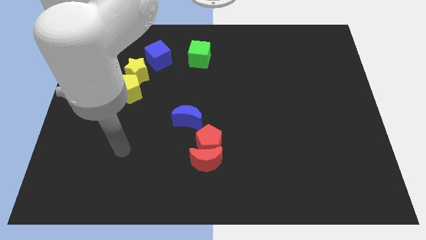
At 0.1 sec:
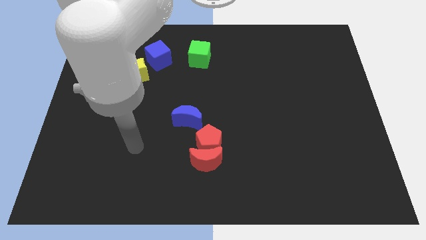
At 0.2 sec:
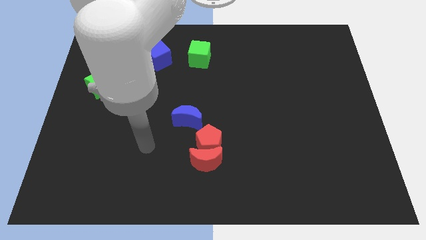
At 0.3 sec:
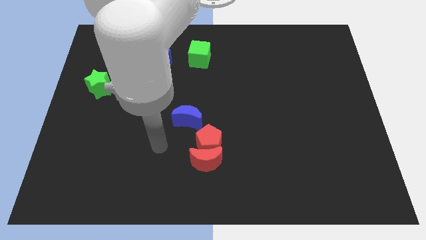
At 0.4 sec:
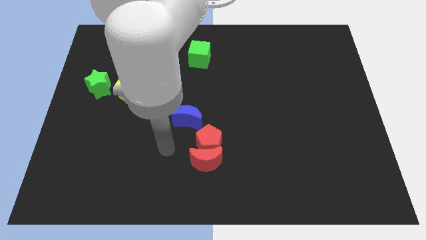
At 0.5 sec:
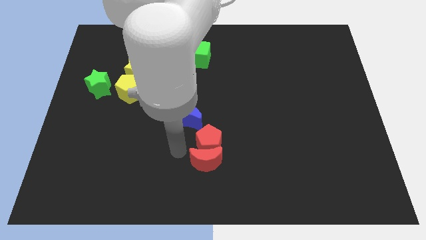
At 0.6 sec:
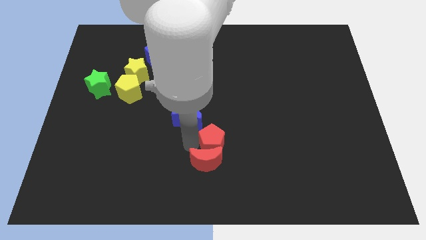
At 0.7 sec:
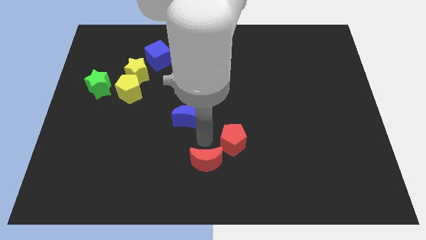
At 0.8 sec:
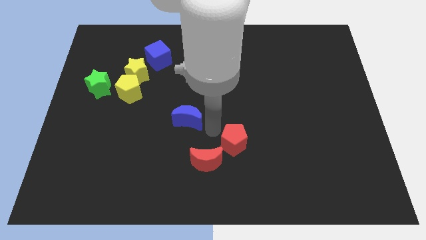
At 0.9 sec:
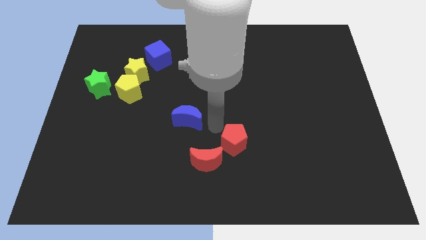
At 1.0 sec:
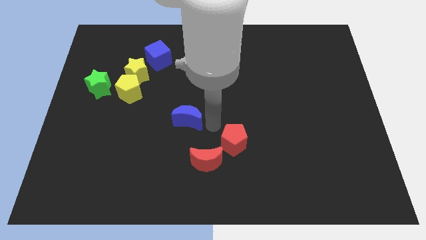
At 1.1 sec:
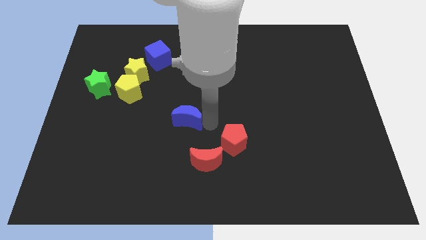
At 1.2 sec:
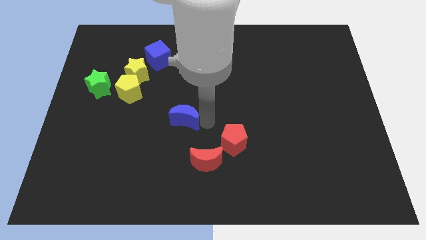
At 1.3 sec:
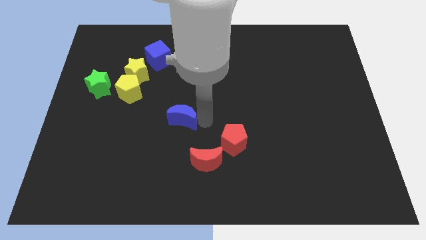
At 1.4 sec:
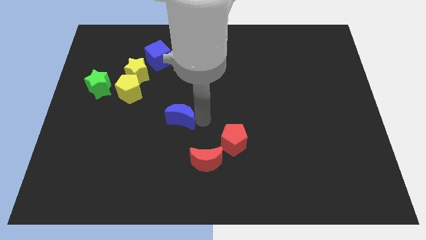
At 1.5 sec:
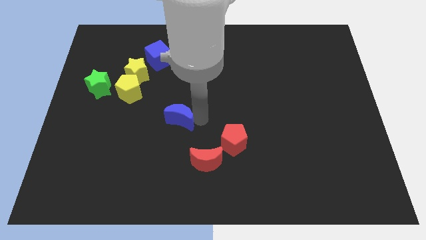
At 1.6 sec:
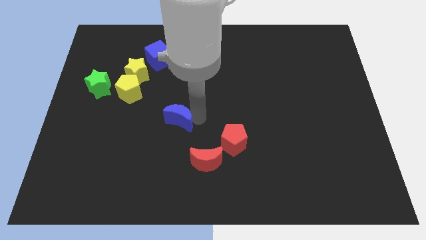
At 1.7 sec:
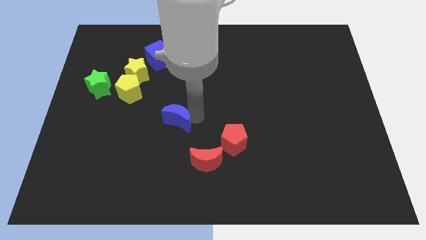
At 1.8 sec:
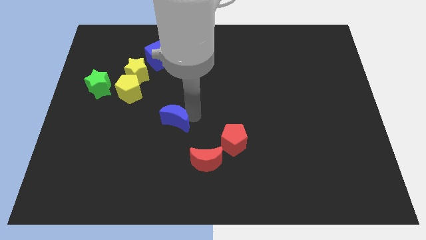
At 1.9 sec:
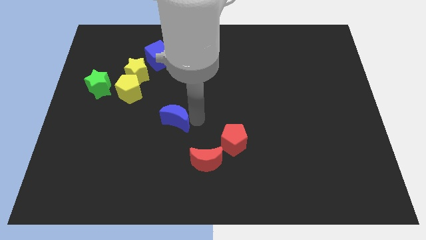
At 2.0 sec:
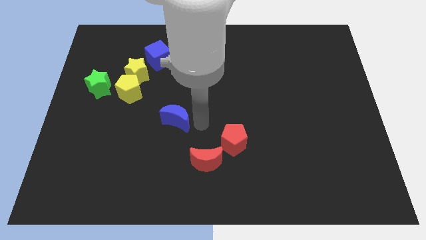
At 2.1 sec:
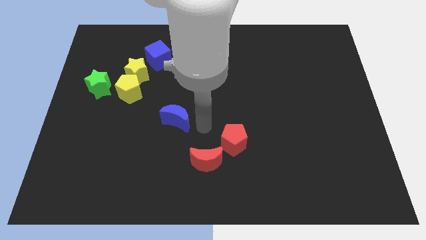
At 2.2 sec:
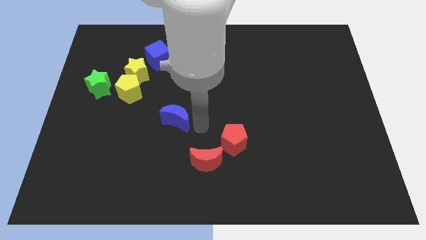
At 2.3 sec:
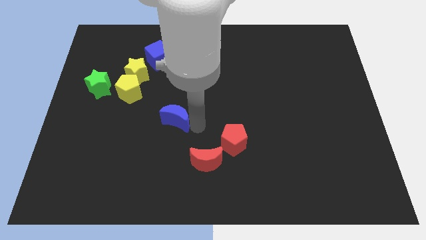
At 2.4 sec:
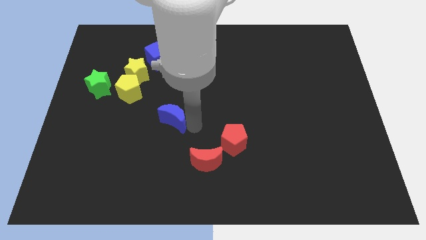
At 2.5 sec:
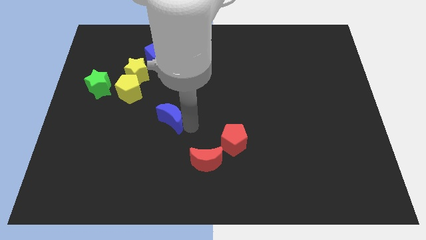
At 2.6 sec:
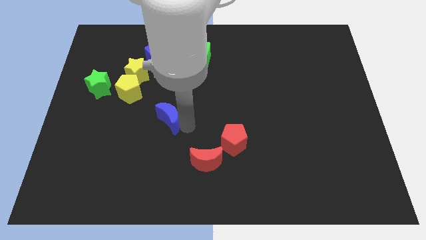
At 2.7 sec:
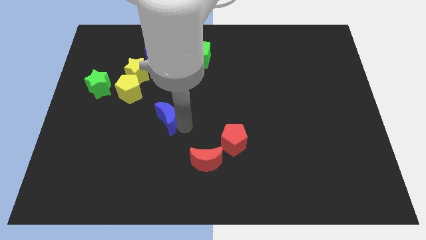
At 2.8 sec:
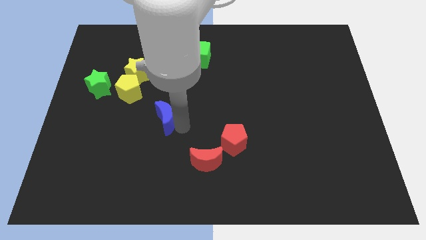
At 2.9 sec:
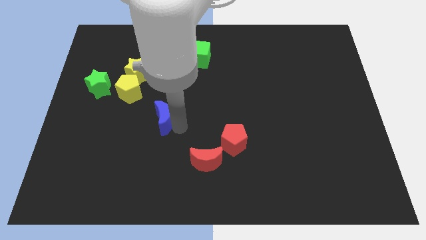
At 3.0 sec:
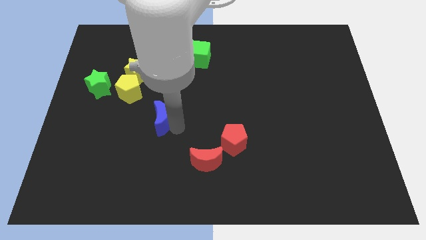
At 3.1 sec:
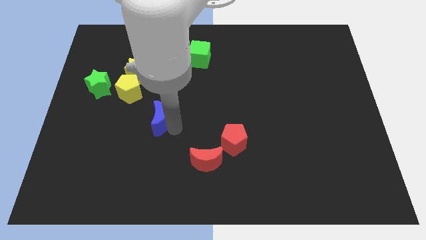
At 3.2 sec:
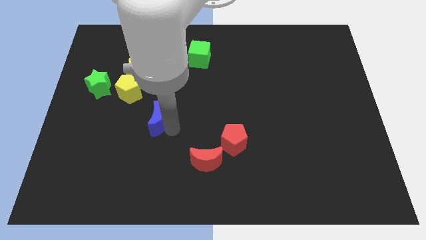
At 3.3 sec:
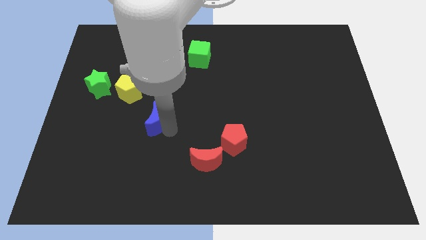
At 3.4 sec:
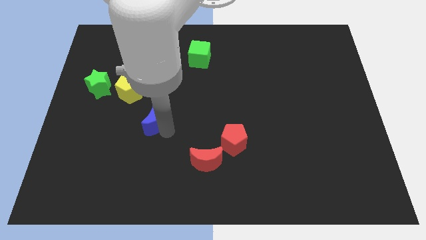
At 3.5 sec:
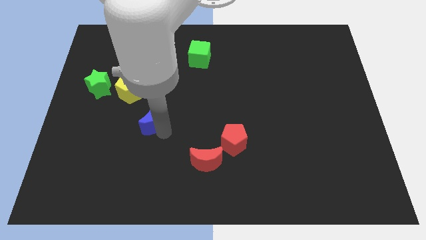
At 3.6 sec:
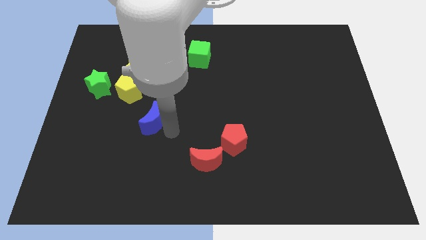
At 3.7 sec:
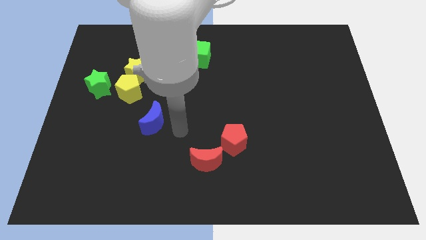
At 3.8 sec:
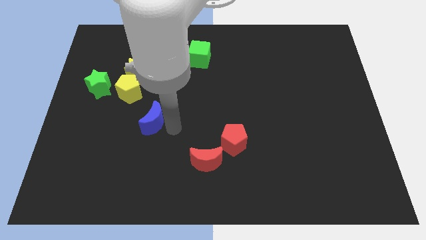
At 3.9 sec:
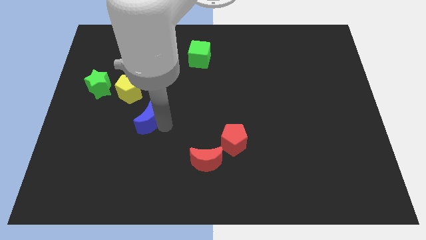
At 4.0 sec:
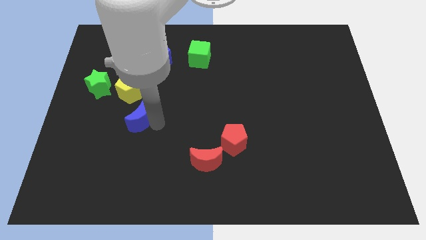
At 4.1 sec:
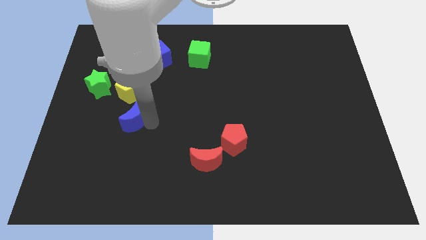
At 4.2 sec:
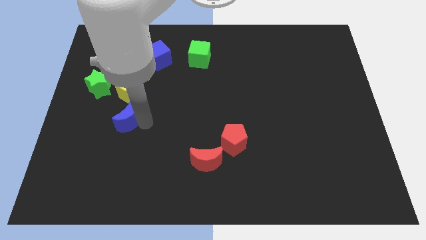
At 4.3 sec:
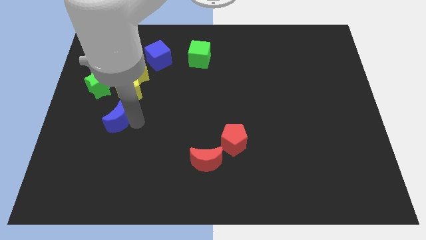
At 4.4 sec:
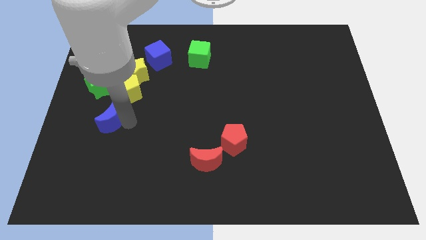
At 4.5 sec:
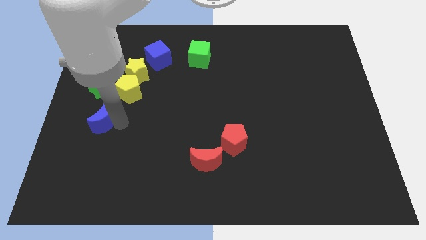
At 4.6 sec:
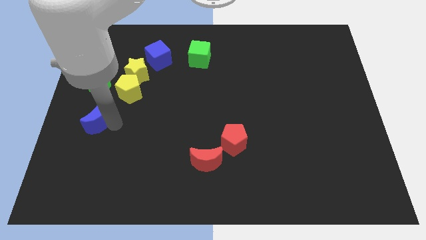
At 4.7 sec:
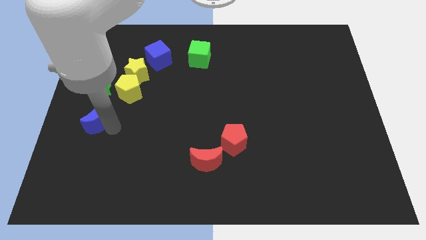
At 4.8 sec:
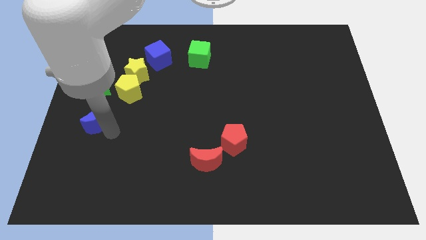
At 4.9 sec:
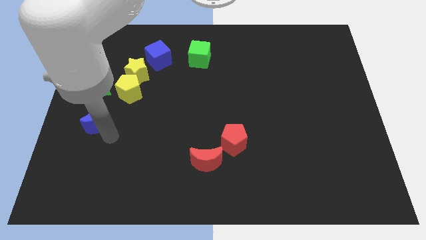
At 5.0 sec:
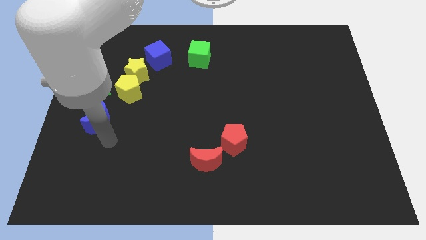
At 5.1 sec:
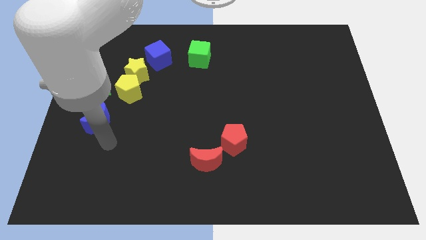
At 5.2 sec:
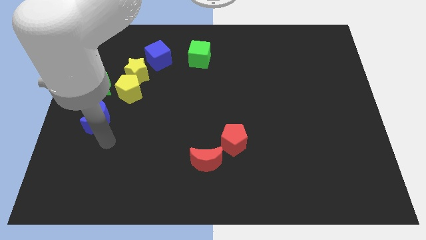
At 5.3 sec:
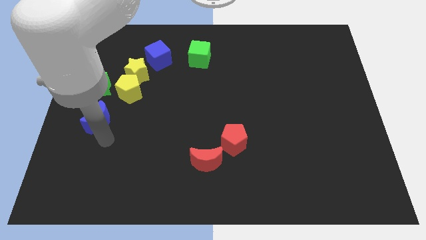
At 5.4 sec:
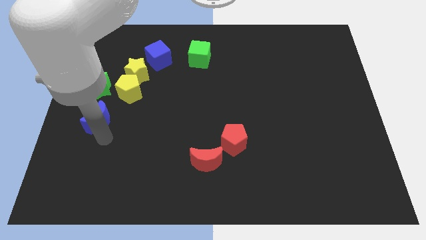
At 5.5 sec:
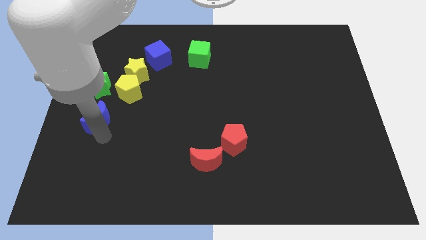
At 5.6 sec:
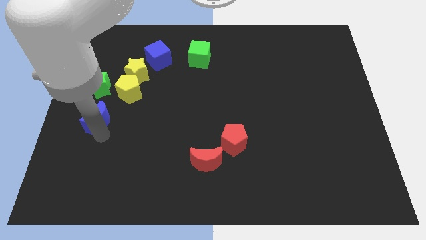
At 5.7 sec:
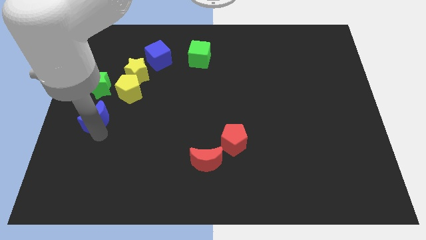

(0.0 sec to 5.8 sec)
put the blue moon to the left side of the board
